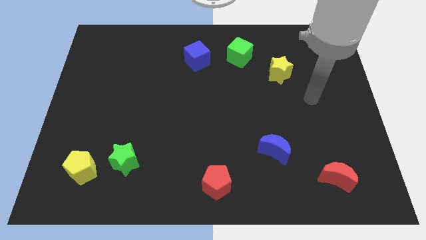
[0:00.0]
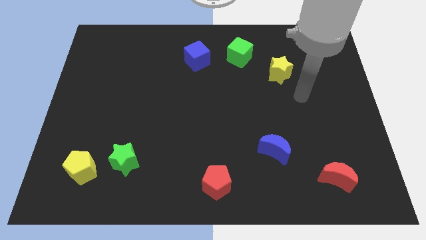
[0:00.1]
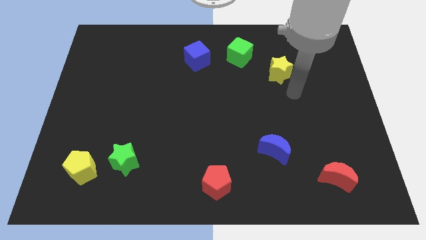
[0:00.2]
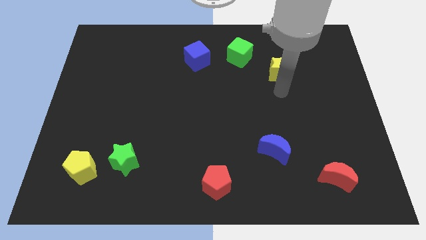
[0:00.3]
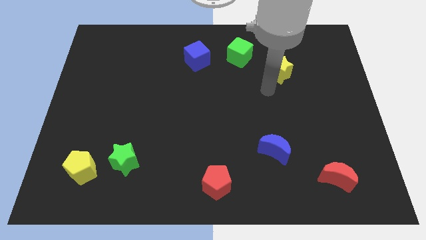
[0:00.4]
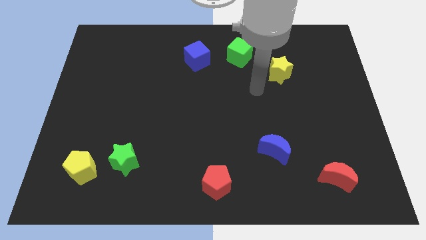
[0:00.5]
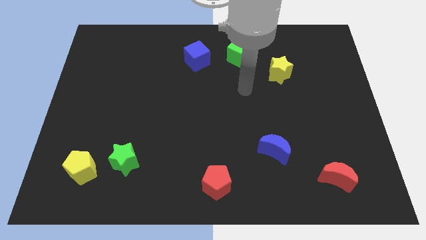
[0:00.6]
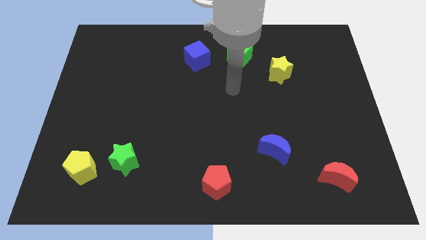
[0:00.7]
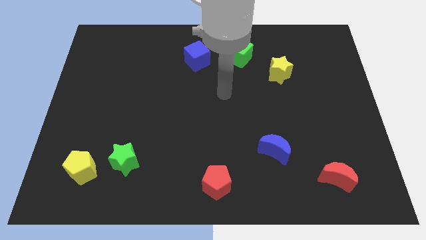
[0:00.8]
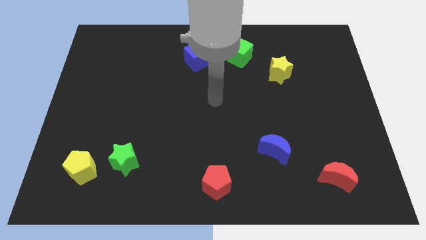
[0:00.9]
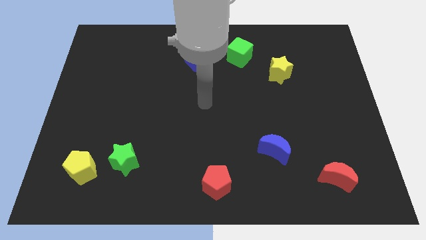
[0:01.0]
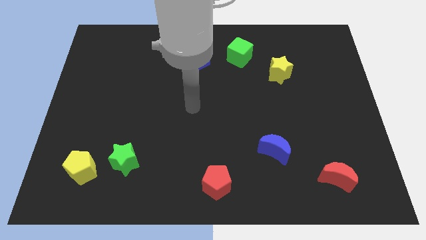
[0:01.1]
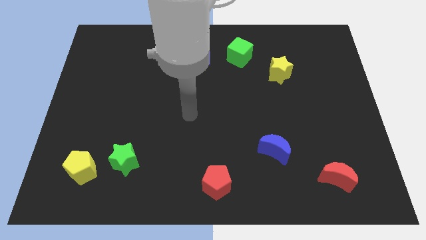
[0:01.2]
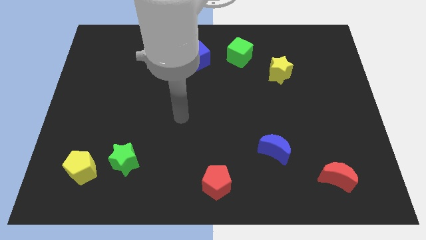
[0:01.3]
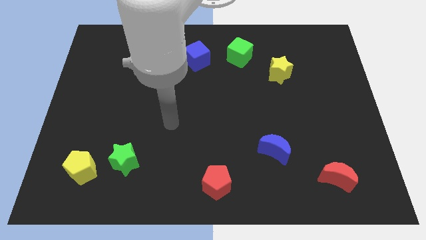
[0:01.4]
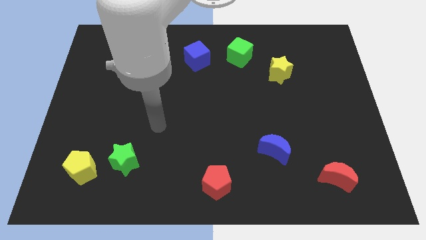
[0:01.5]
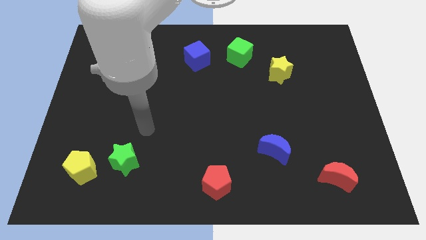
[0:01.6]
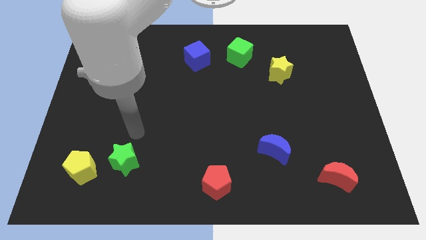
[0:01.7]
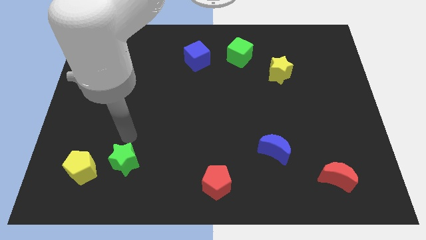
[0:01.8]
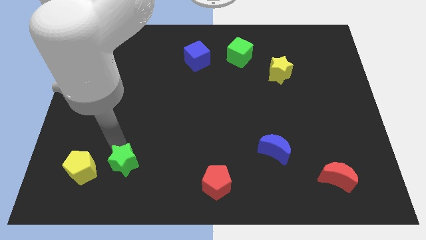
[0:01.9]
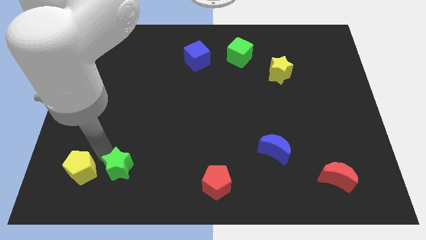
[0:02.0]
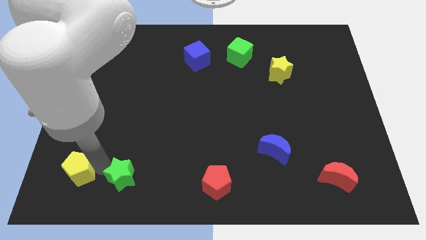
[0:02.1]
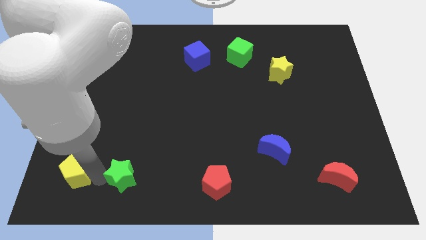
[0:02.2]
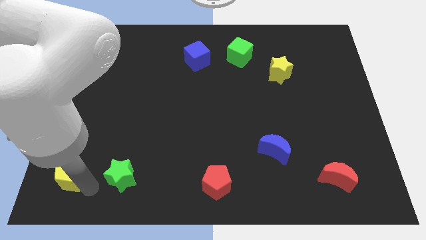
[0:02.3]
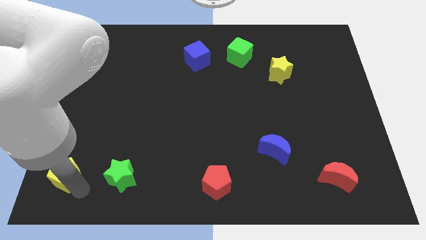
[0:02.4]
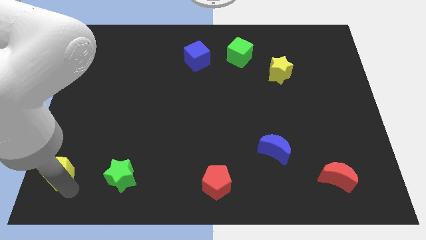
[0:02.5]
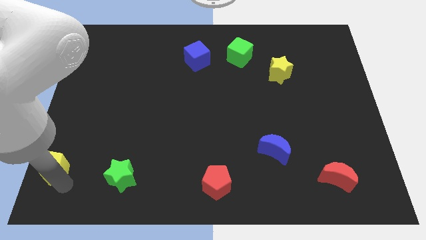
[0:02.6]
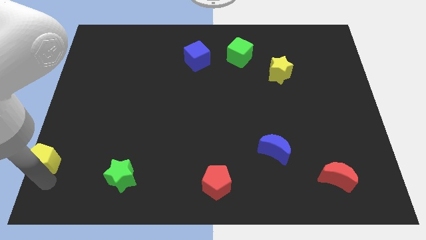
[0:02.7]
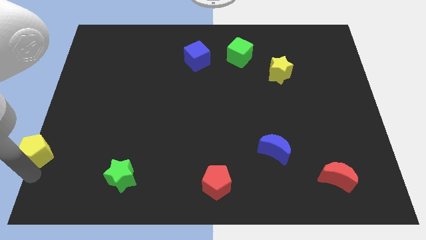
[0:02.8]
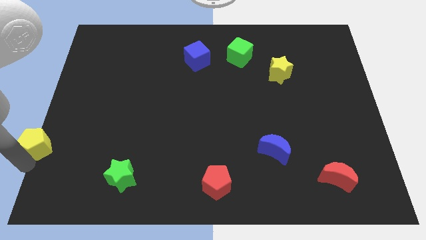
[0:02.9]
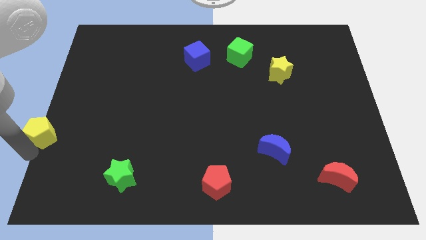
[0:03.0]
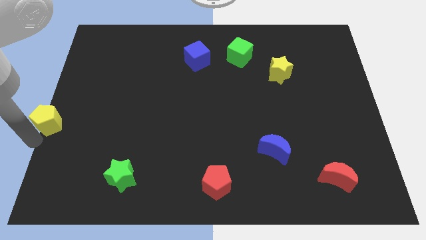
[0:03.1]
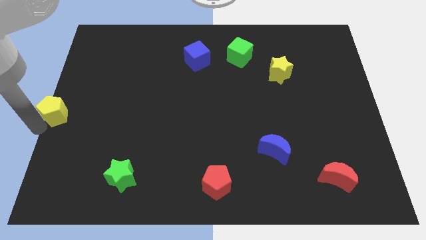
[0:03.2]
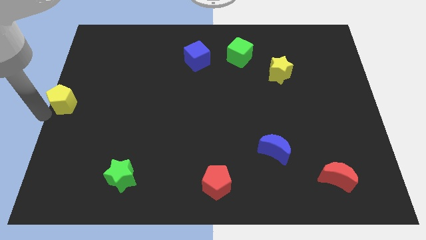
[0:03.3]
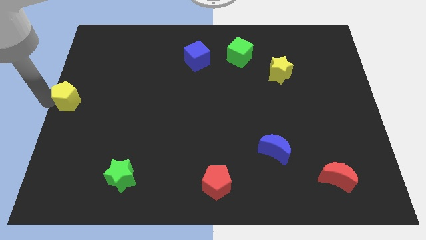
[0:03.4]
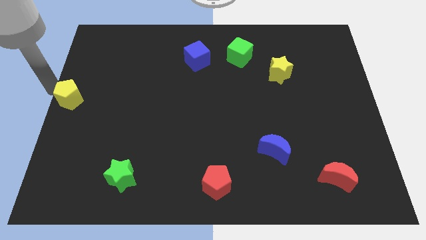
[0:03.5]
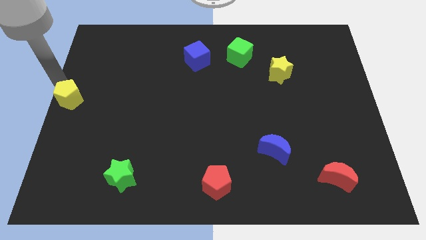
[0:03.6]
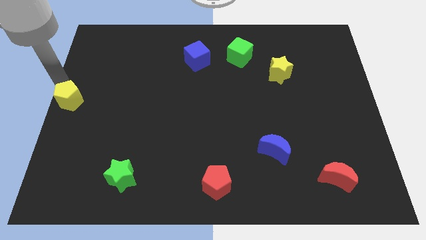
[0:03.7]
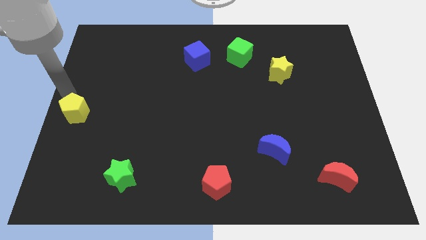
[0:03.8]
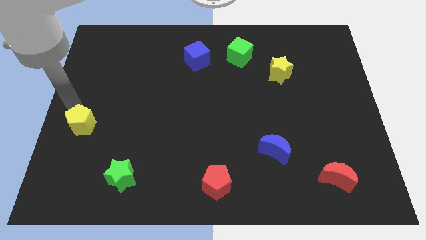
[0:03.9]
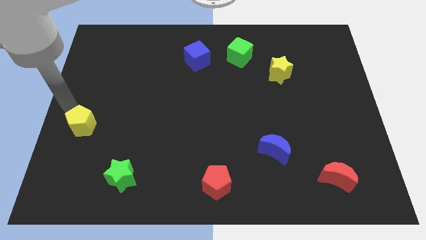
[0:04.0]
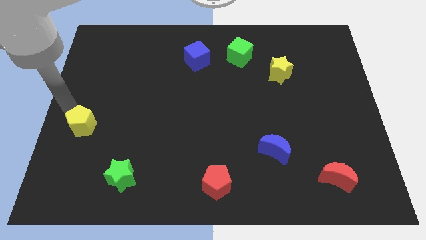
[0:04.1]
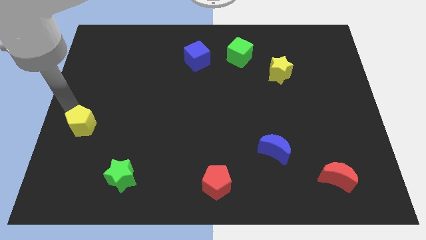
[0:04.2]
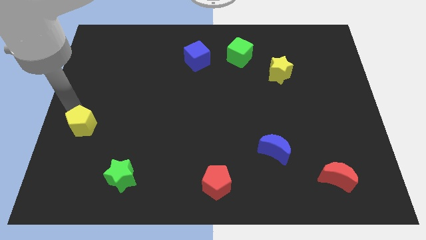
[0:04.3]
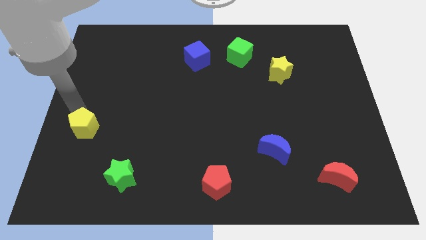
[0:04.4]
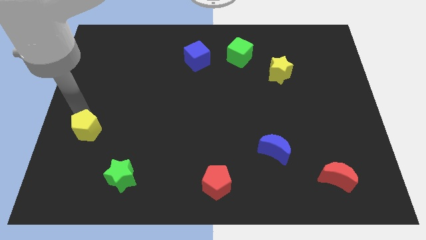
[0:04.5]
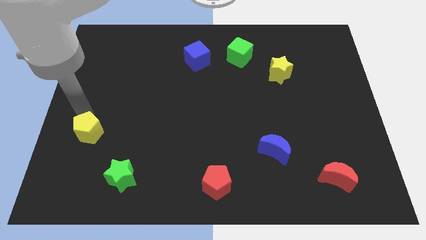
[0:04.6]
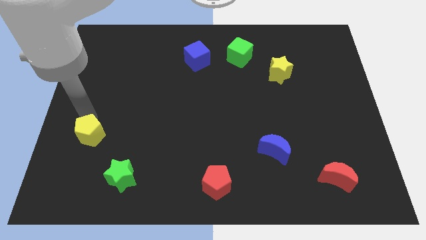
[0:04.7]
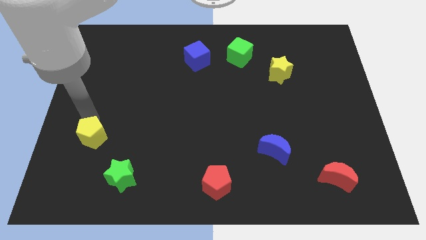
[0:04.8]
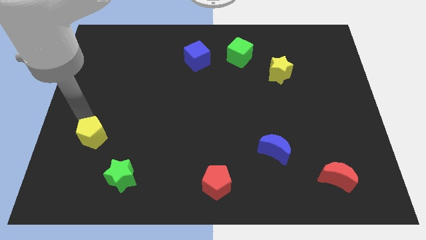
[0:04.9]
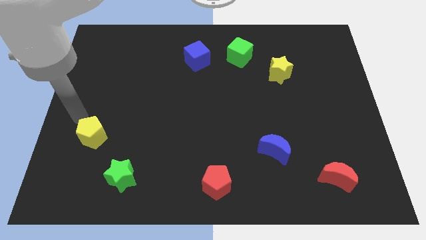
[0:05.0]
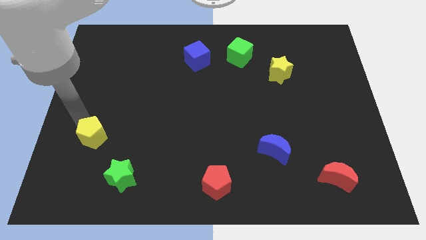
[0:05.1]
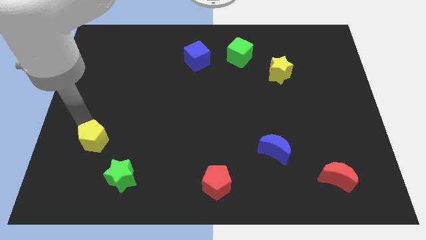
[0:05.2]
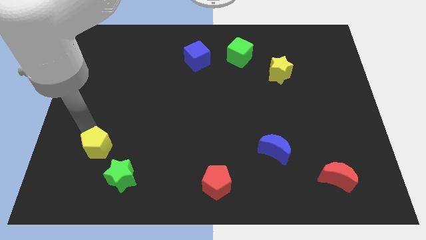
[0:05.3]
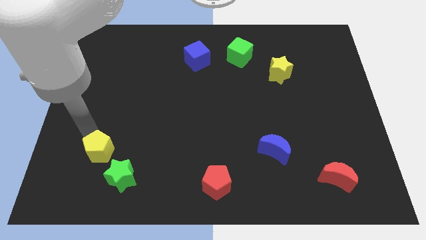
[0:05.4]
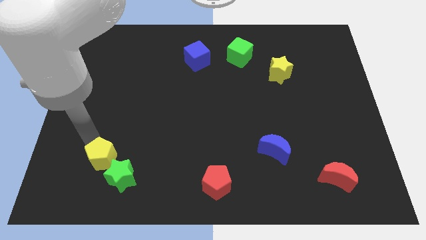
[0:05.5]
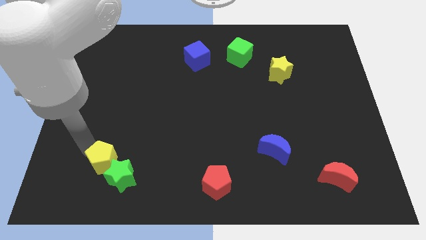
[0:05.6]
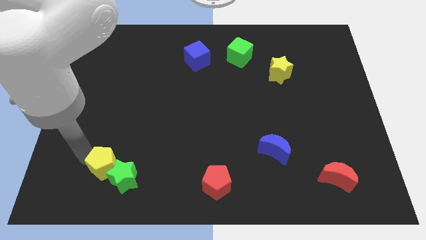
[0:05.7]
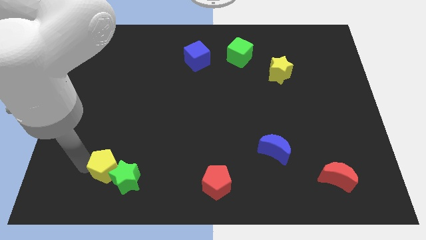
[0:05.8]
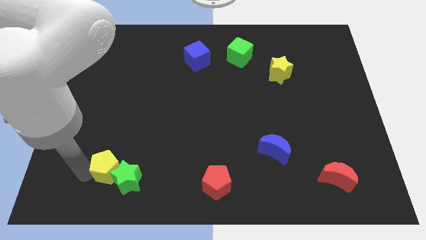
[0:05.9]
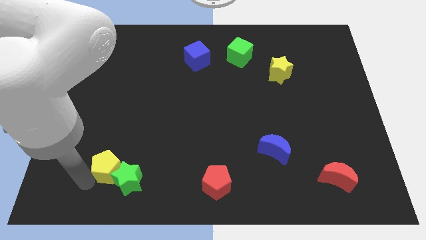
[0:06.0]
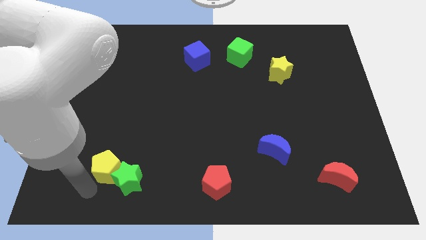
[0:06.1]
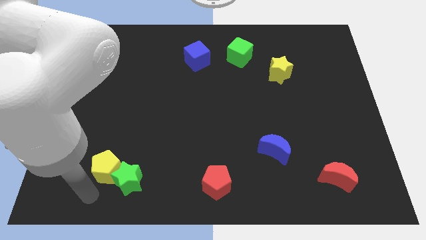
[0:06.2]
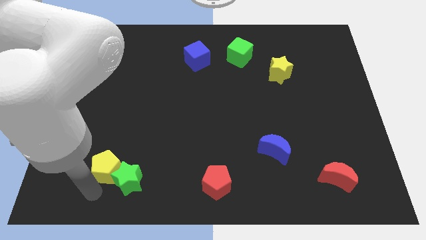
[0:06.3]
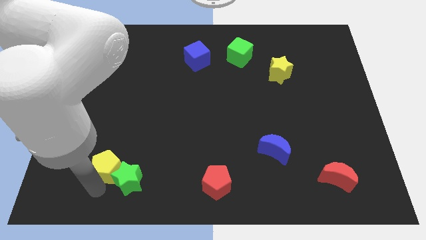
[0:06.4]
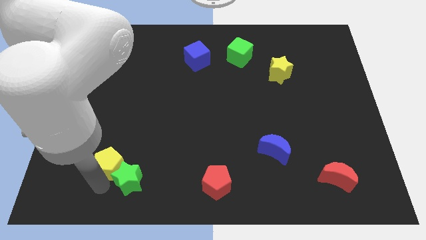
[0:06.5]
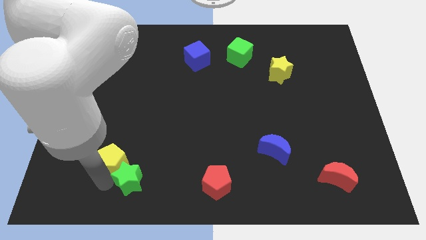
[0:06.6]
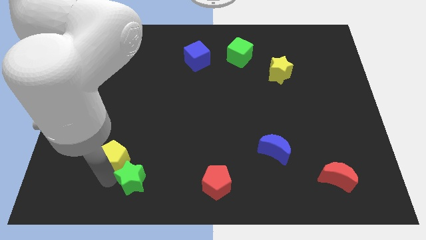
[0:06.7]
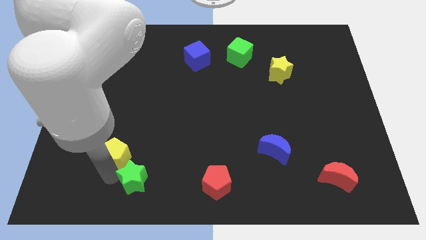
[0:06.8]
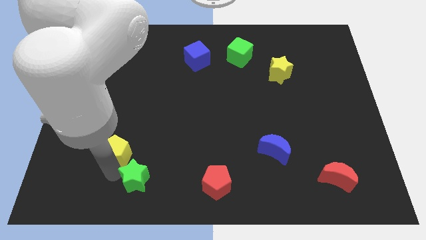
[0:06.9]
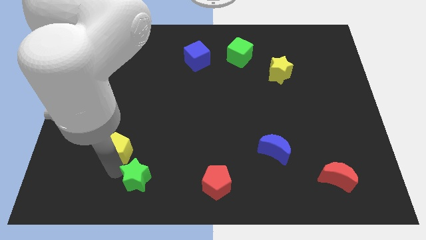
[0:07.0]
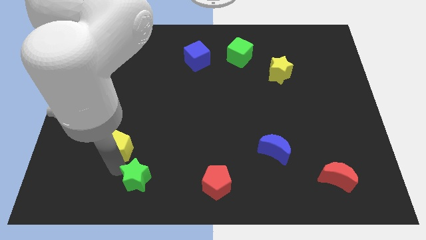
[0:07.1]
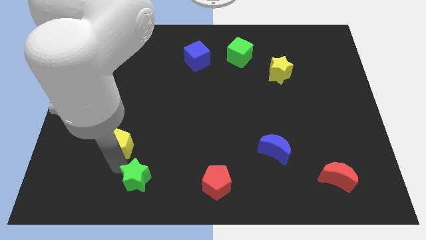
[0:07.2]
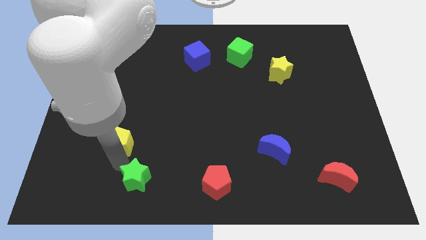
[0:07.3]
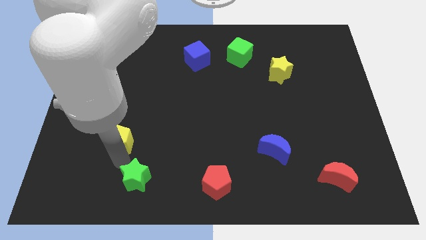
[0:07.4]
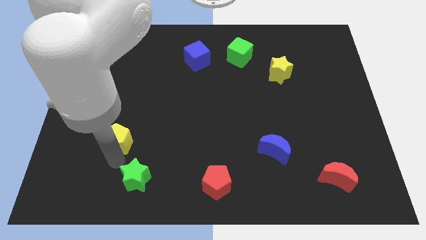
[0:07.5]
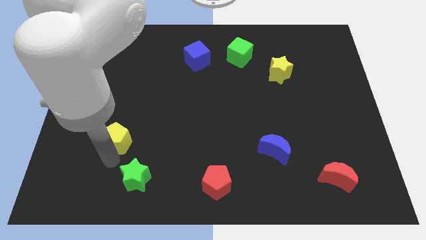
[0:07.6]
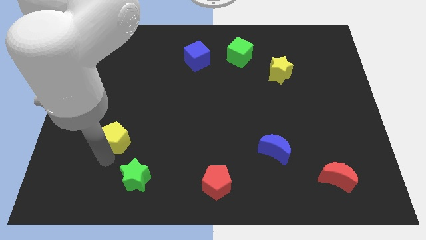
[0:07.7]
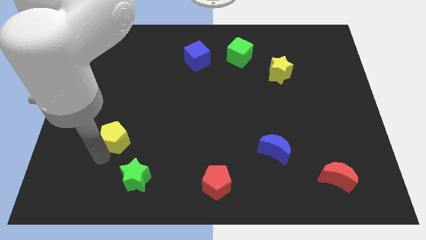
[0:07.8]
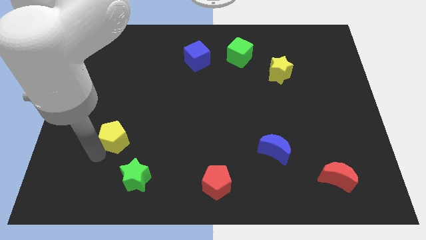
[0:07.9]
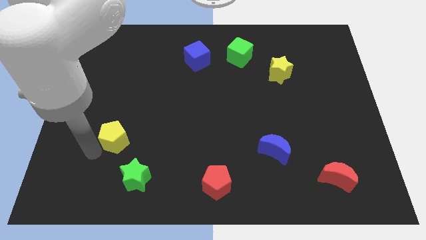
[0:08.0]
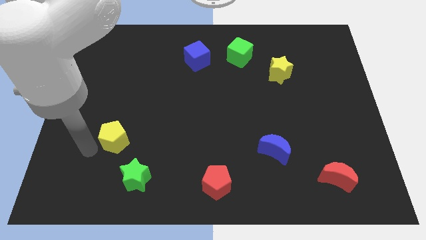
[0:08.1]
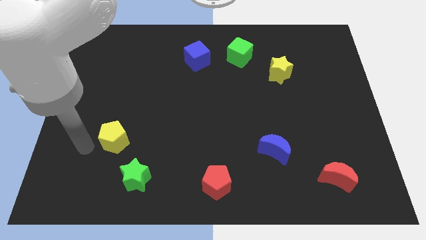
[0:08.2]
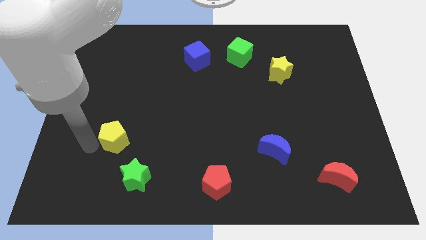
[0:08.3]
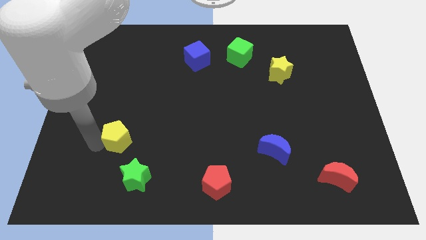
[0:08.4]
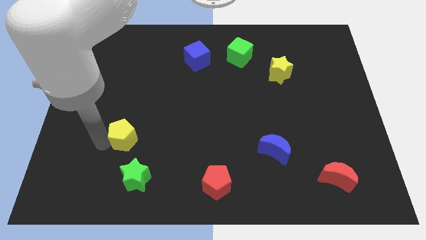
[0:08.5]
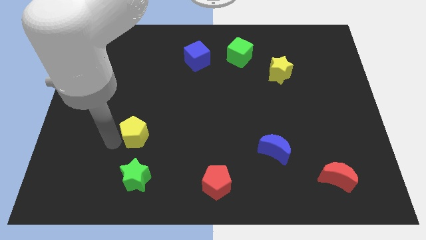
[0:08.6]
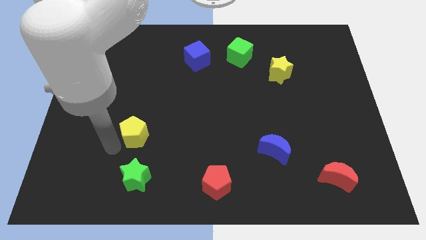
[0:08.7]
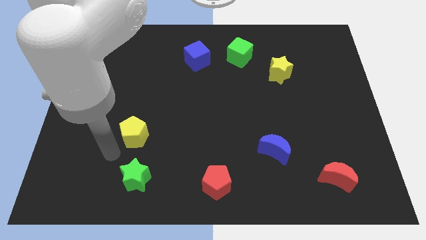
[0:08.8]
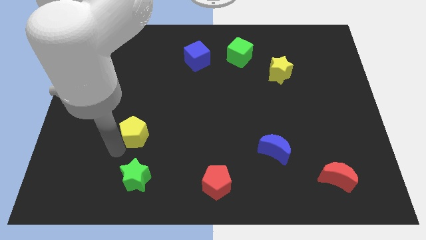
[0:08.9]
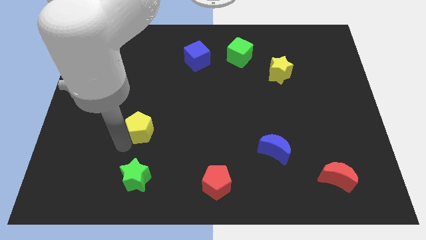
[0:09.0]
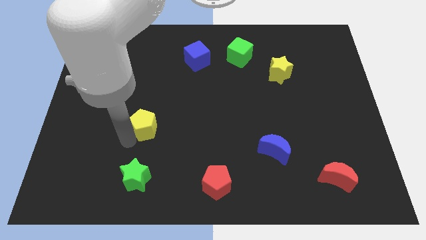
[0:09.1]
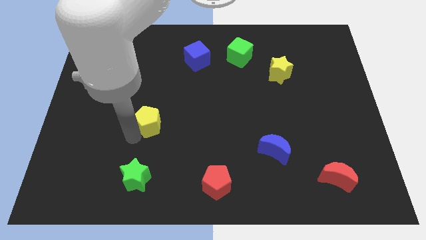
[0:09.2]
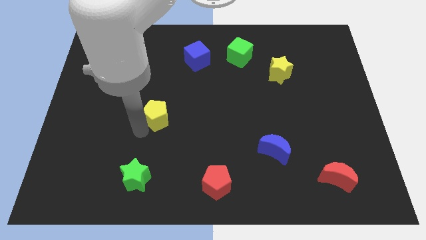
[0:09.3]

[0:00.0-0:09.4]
push the yellow pentagon diagonally upwards and to the right
